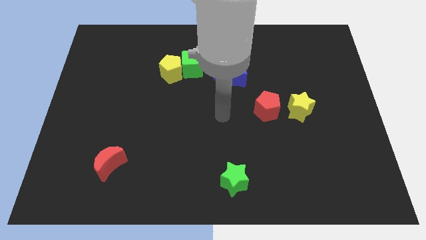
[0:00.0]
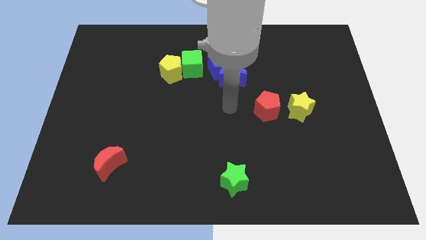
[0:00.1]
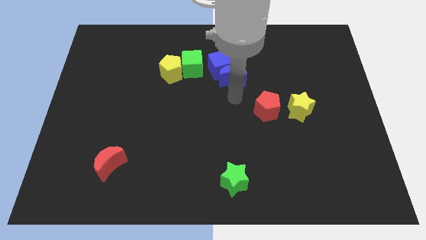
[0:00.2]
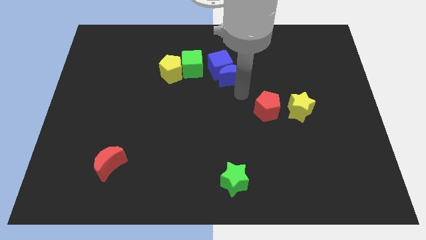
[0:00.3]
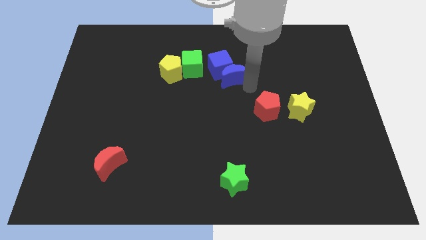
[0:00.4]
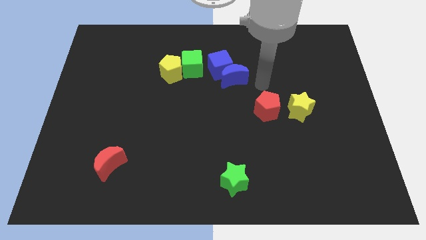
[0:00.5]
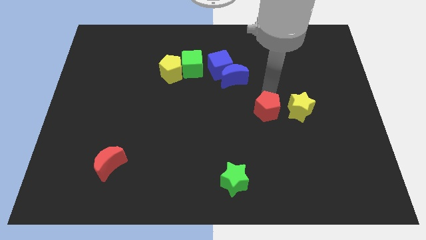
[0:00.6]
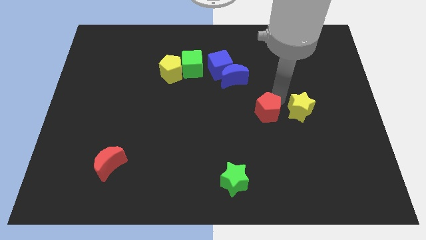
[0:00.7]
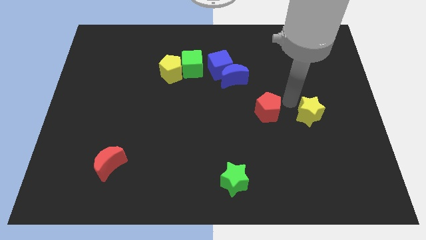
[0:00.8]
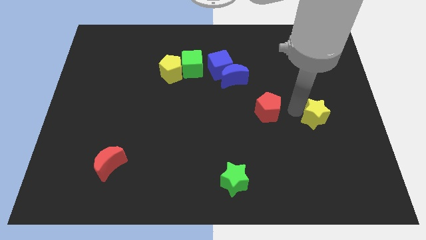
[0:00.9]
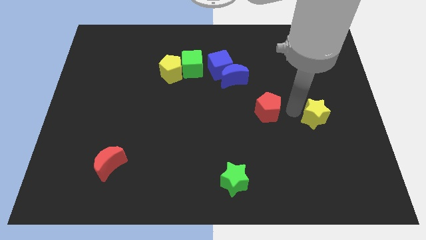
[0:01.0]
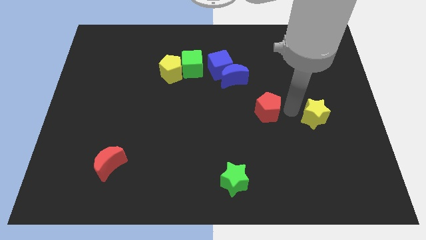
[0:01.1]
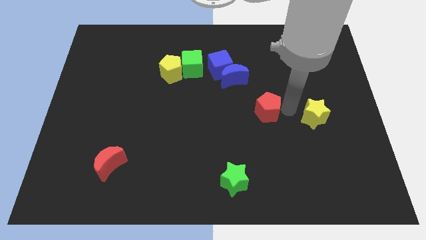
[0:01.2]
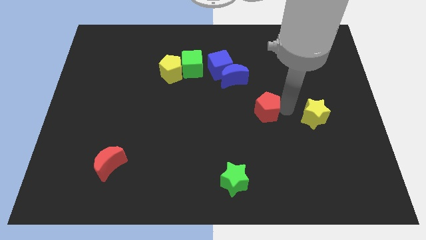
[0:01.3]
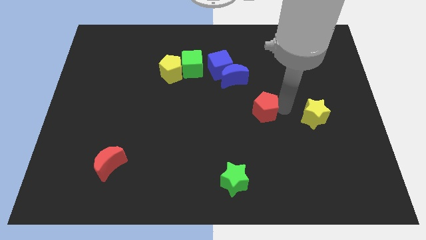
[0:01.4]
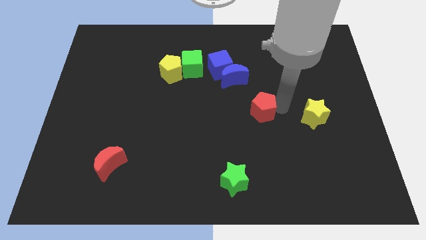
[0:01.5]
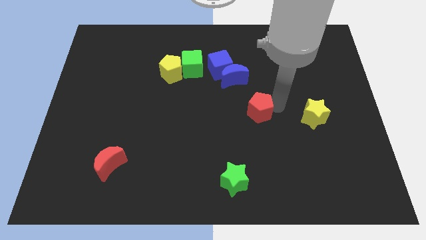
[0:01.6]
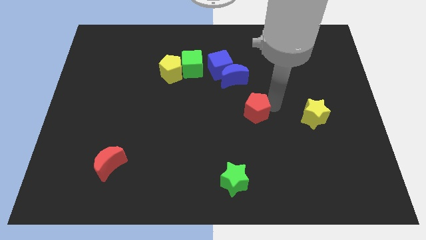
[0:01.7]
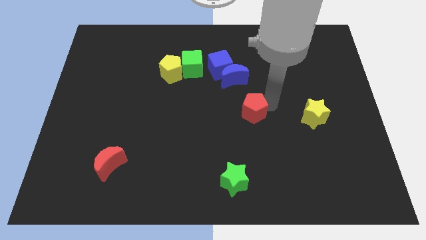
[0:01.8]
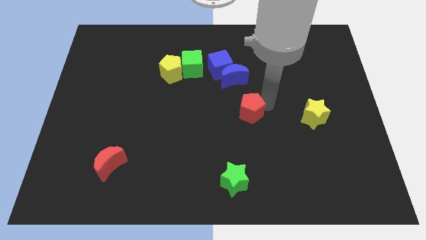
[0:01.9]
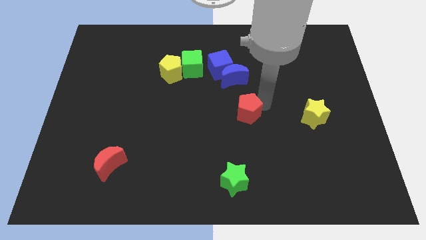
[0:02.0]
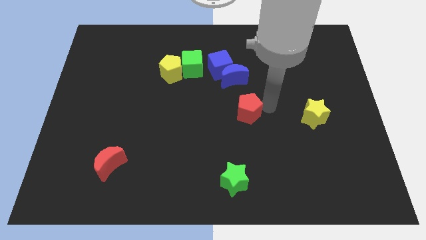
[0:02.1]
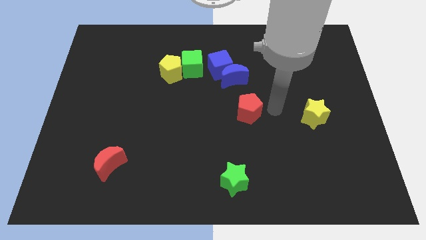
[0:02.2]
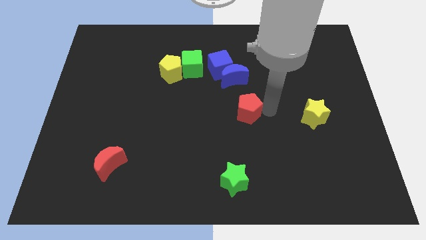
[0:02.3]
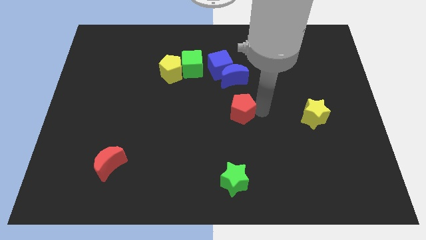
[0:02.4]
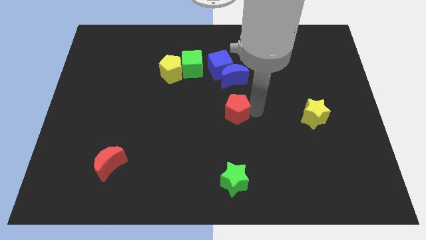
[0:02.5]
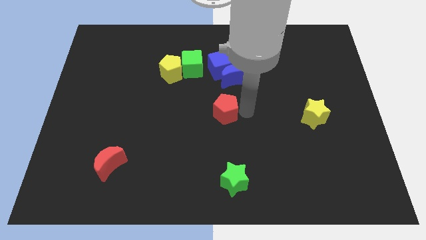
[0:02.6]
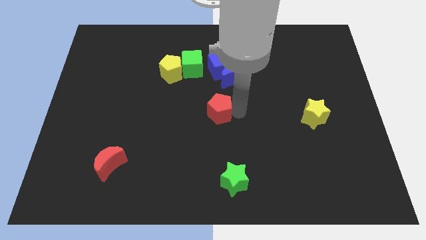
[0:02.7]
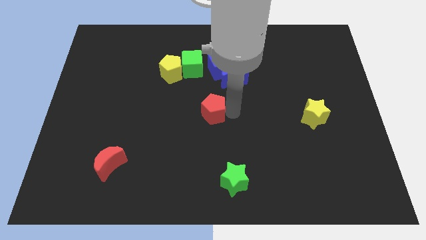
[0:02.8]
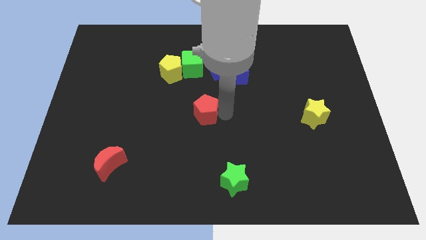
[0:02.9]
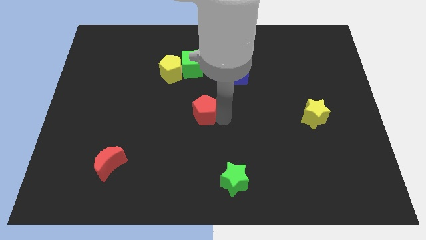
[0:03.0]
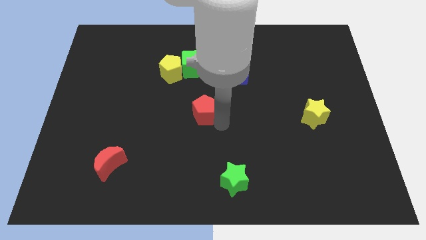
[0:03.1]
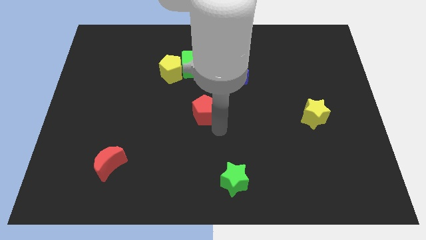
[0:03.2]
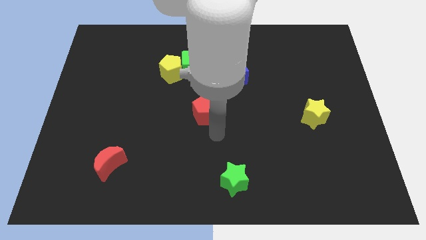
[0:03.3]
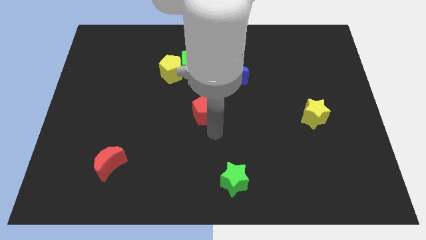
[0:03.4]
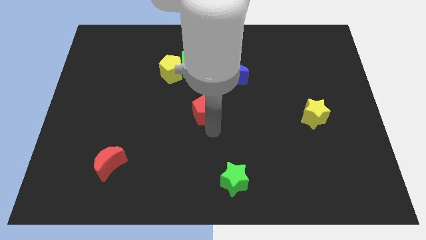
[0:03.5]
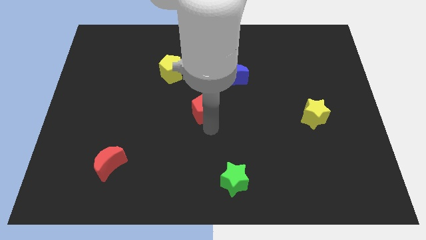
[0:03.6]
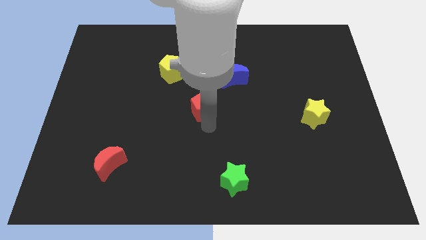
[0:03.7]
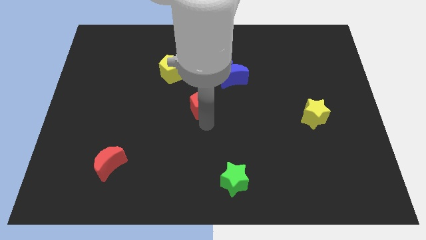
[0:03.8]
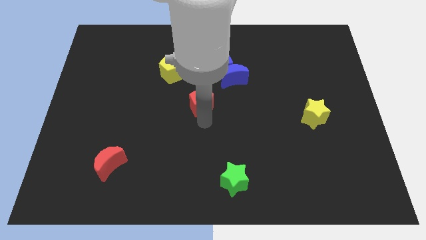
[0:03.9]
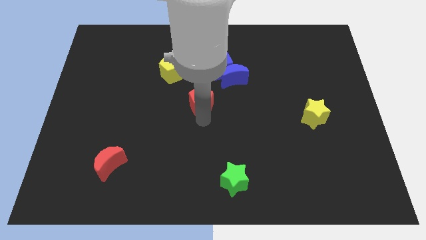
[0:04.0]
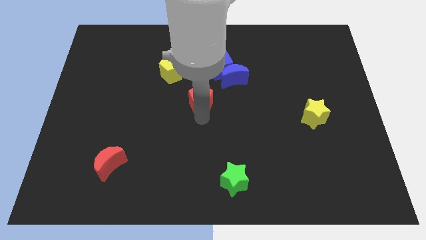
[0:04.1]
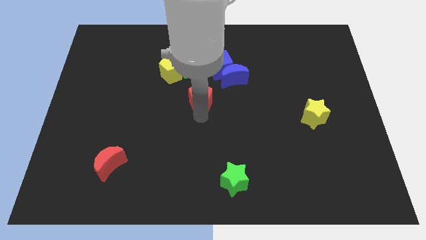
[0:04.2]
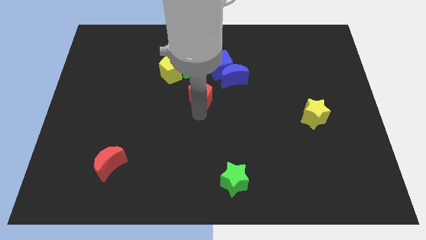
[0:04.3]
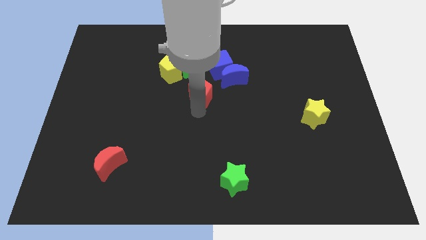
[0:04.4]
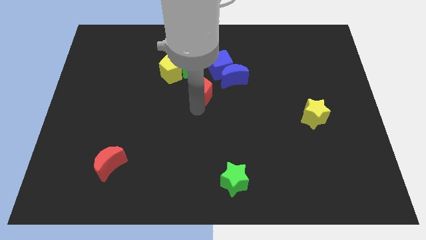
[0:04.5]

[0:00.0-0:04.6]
push the red pentagon just left of the blue moon

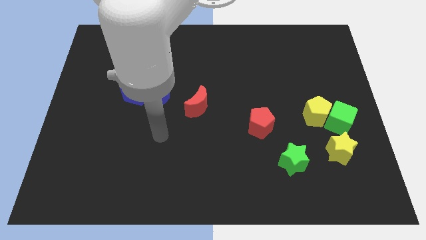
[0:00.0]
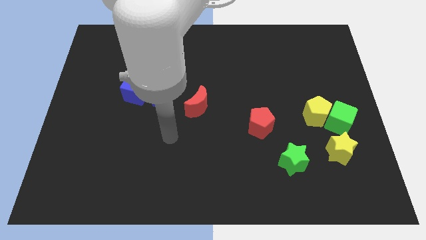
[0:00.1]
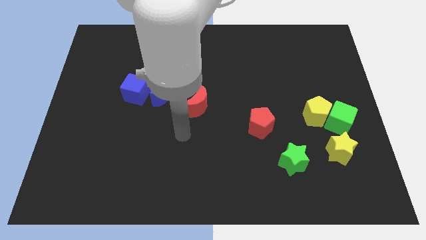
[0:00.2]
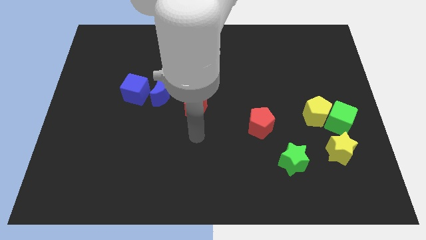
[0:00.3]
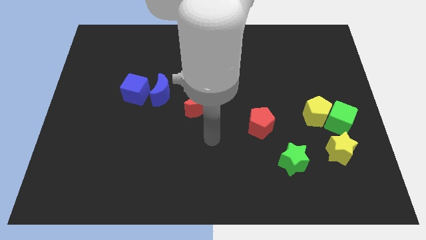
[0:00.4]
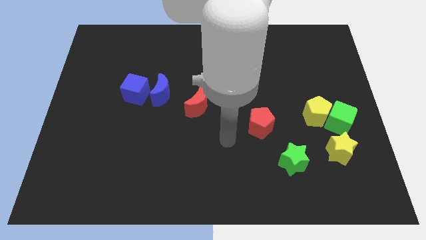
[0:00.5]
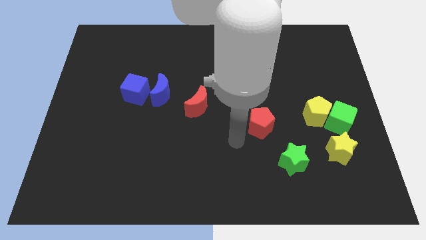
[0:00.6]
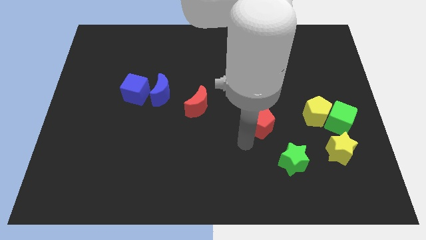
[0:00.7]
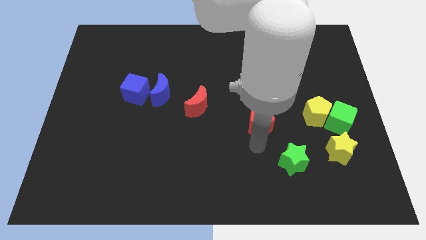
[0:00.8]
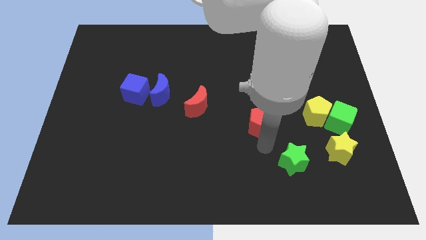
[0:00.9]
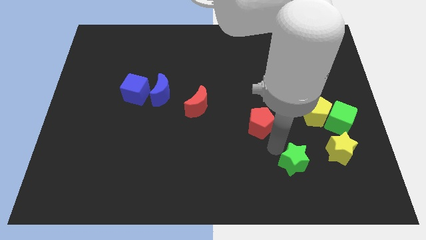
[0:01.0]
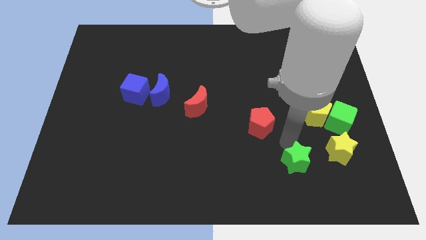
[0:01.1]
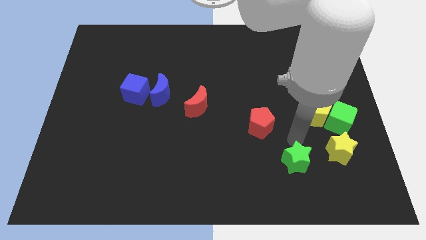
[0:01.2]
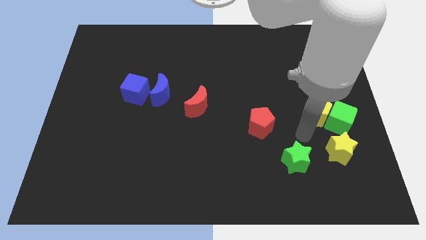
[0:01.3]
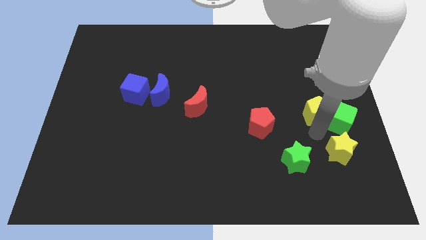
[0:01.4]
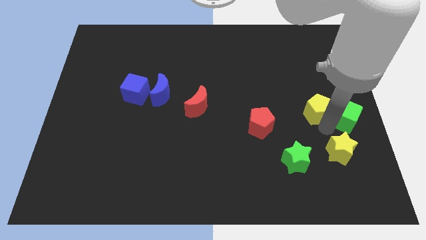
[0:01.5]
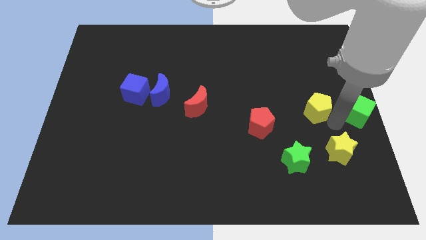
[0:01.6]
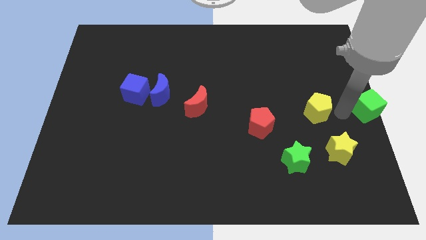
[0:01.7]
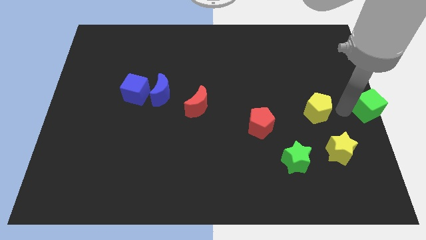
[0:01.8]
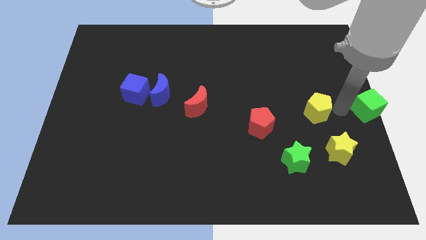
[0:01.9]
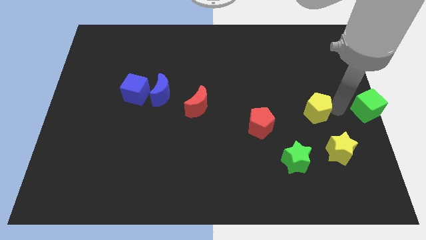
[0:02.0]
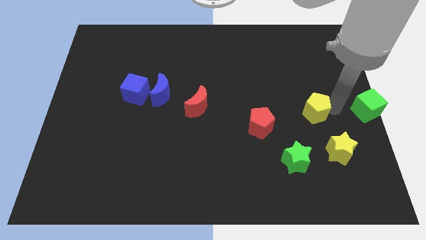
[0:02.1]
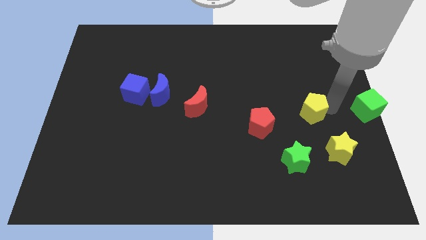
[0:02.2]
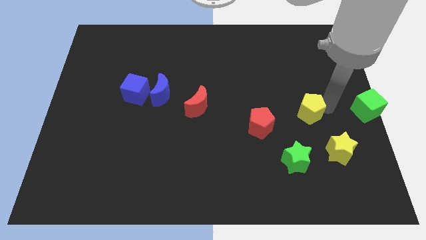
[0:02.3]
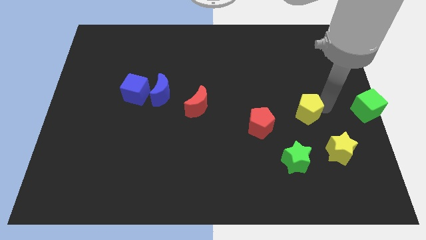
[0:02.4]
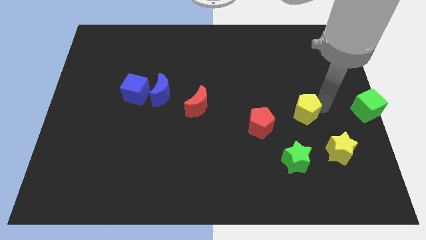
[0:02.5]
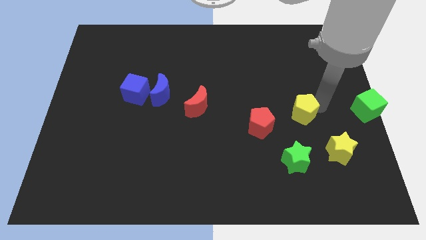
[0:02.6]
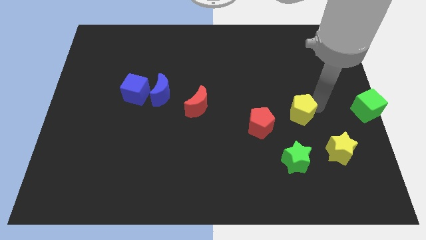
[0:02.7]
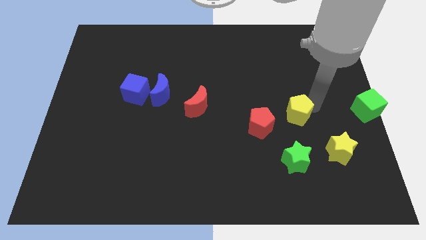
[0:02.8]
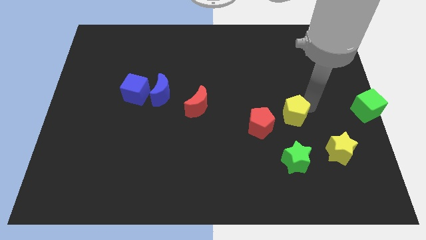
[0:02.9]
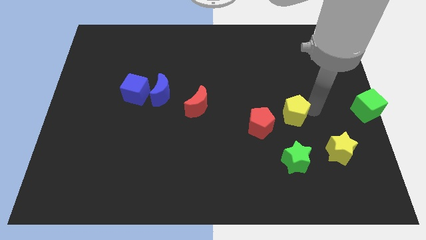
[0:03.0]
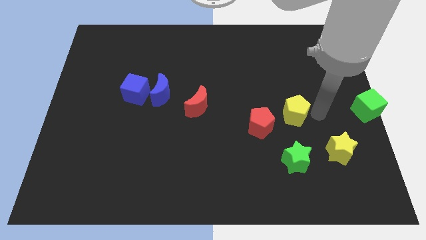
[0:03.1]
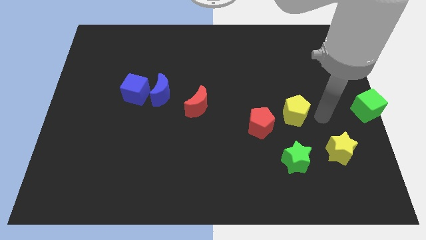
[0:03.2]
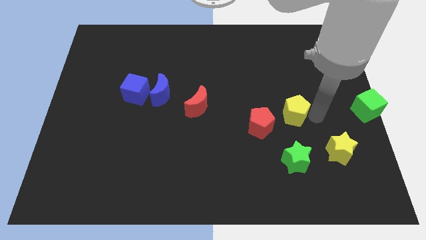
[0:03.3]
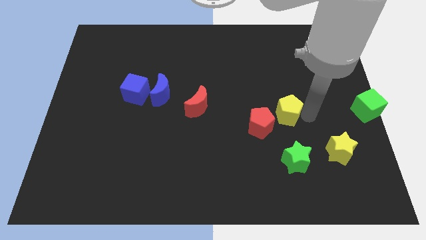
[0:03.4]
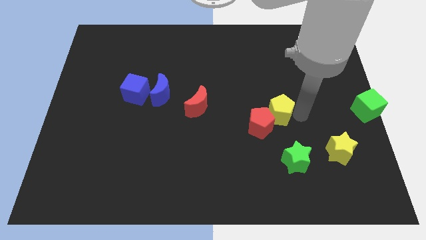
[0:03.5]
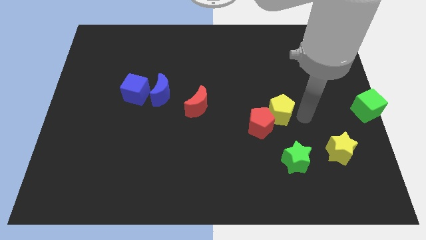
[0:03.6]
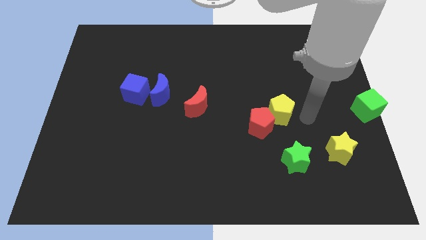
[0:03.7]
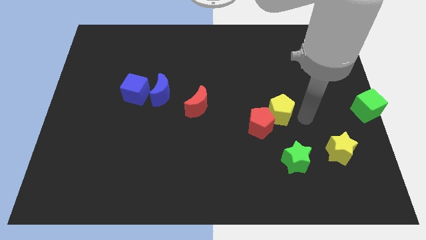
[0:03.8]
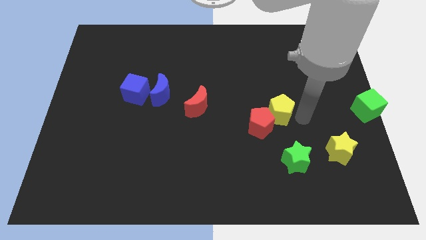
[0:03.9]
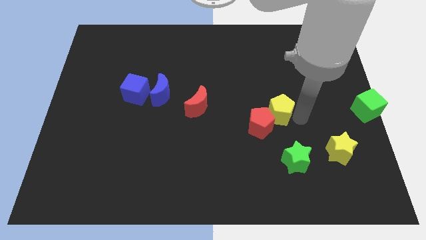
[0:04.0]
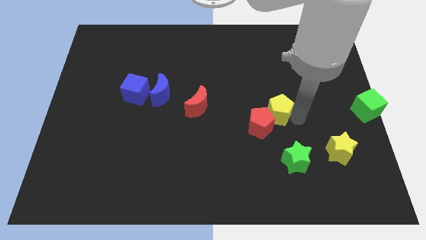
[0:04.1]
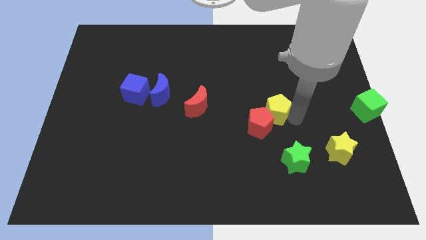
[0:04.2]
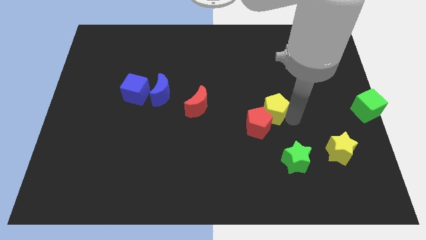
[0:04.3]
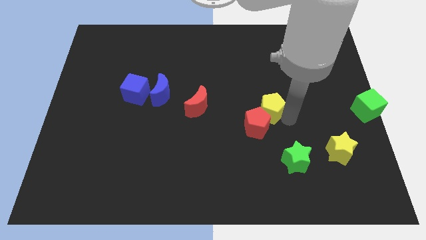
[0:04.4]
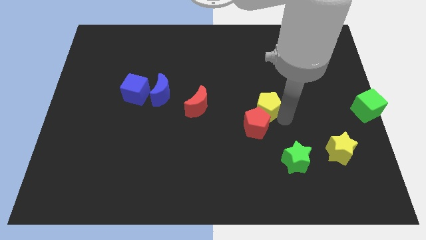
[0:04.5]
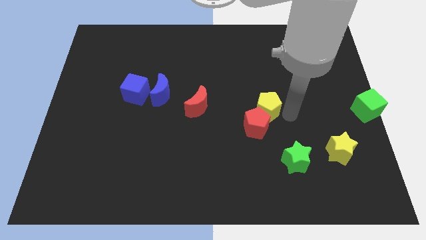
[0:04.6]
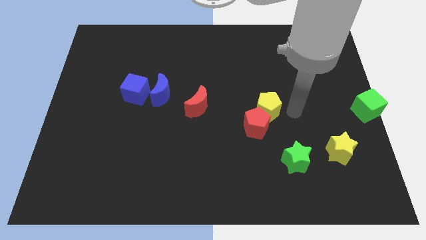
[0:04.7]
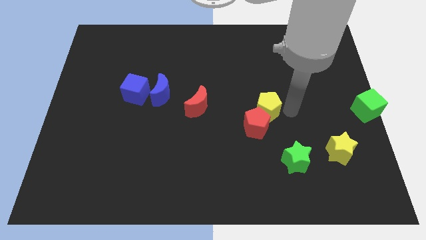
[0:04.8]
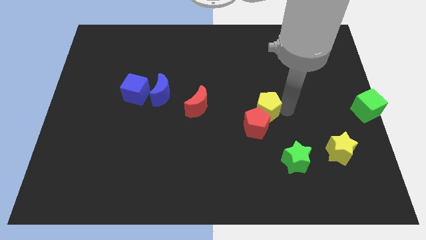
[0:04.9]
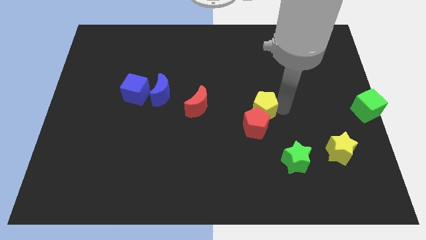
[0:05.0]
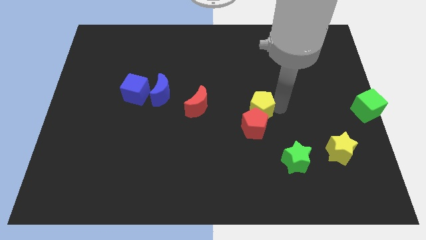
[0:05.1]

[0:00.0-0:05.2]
put the yellow pentagon diagonally up and to the left of the red pentagon
